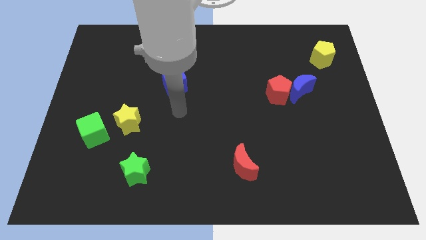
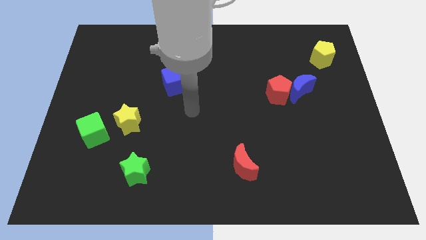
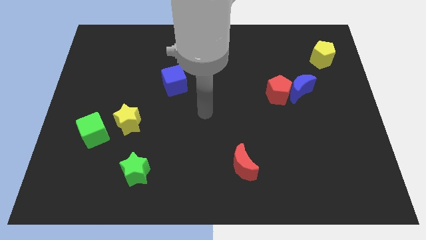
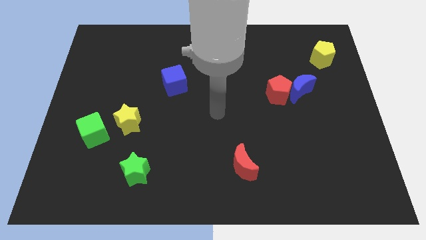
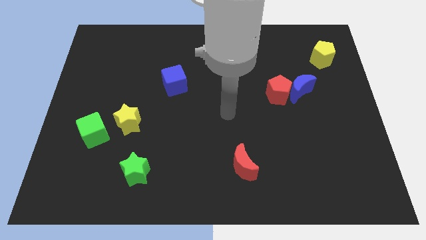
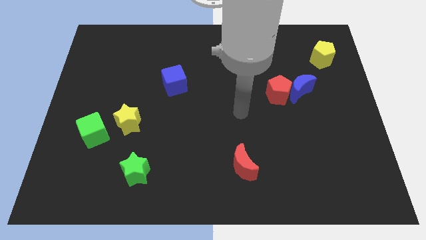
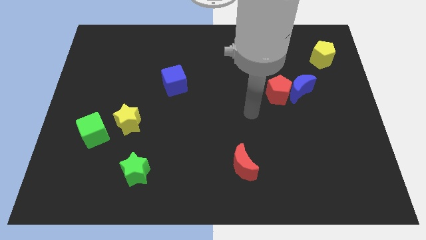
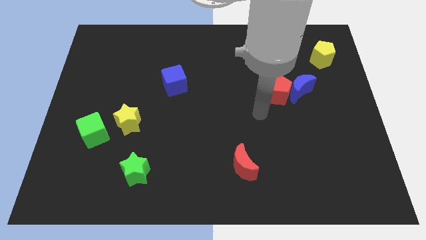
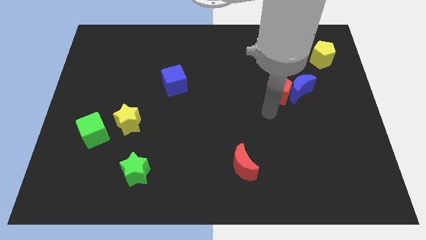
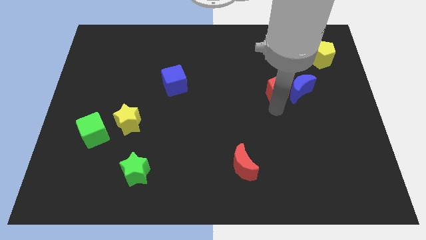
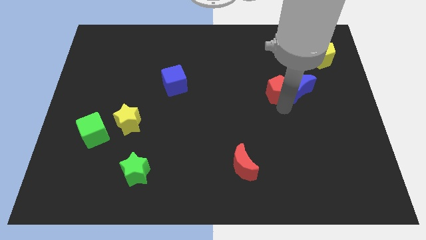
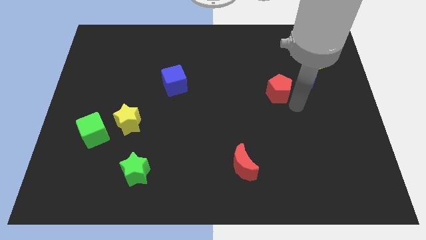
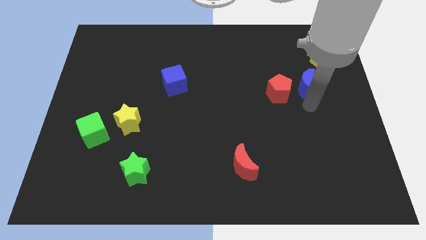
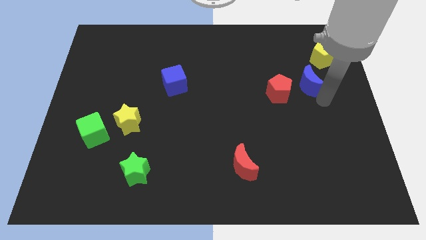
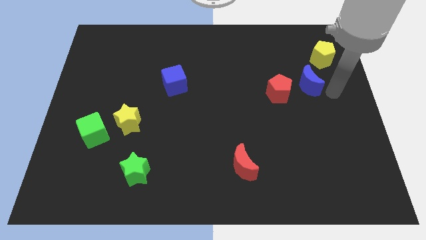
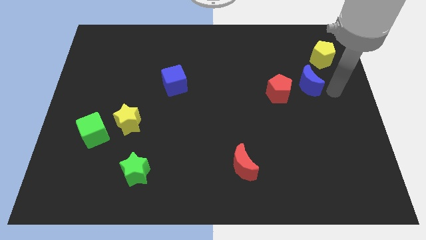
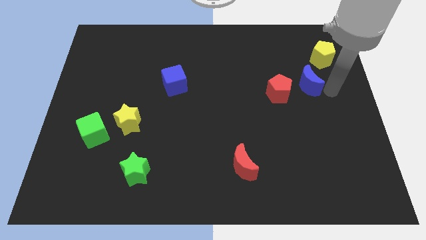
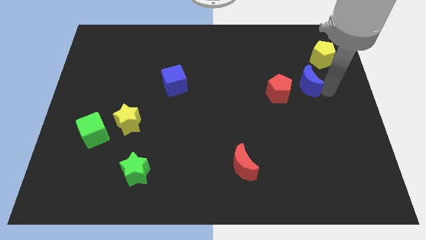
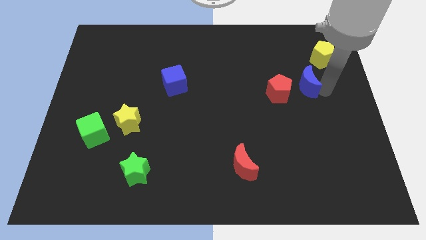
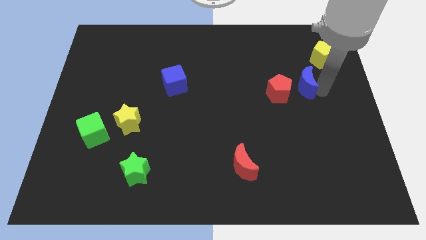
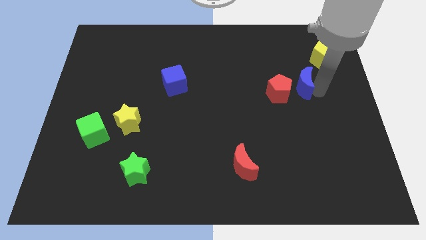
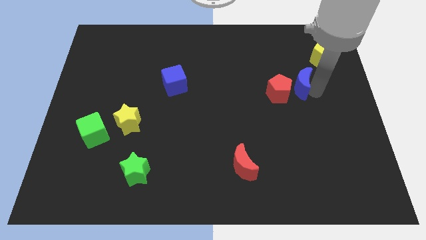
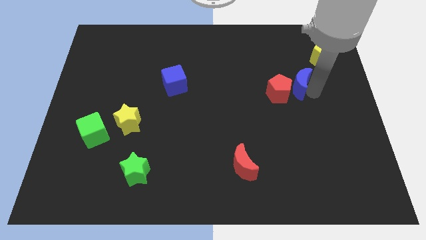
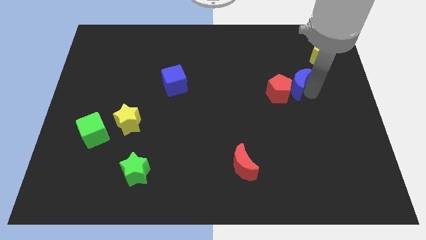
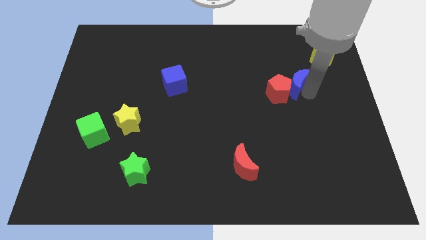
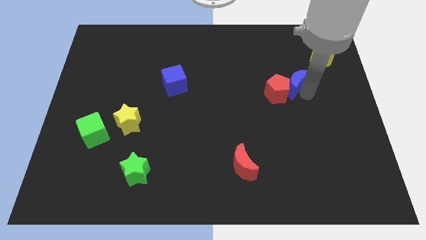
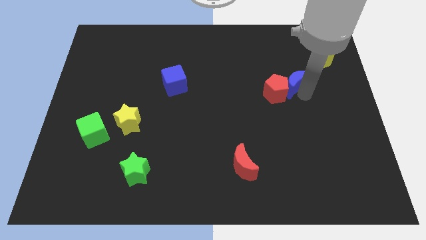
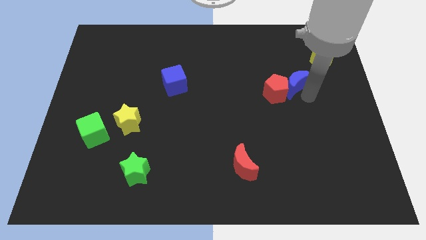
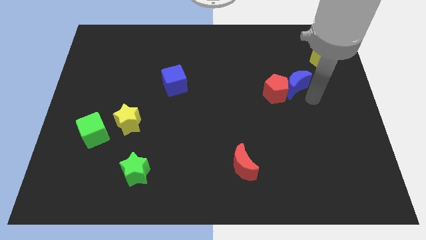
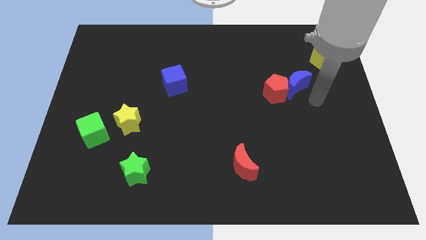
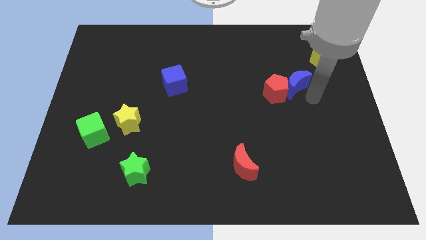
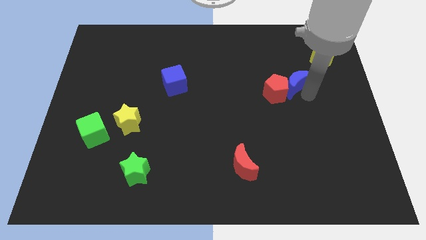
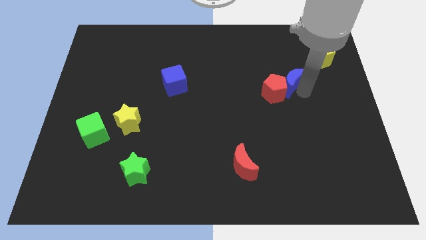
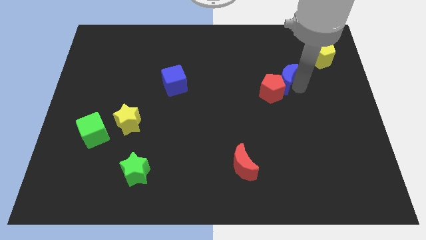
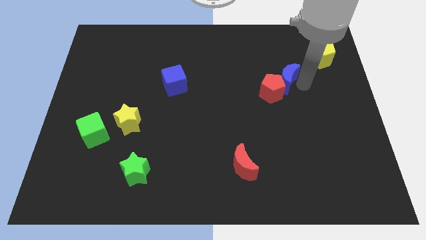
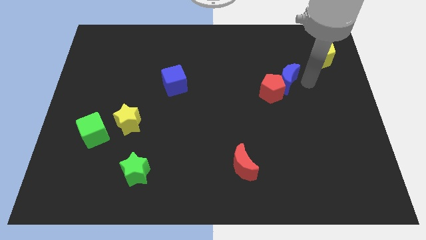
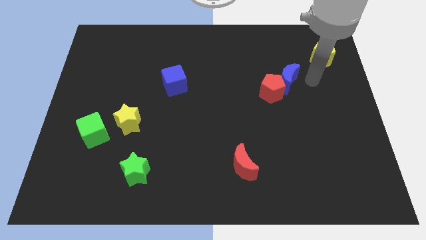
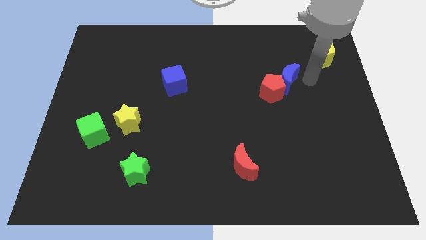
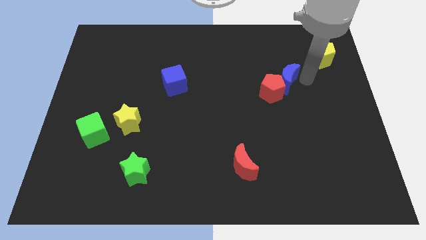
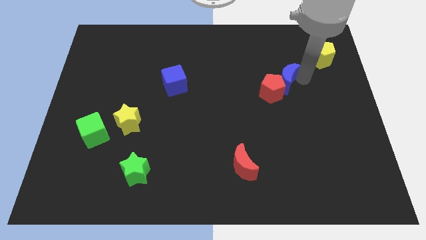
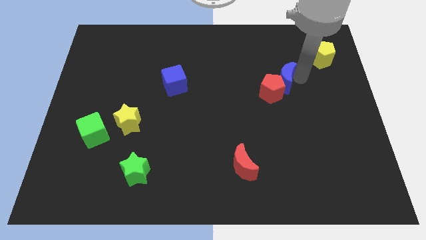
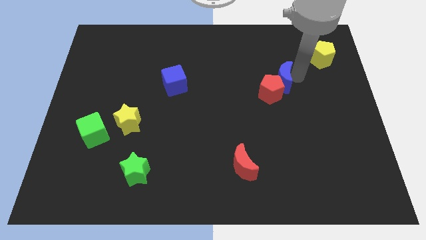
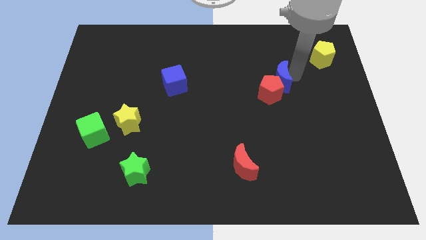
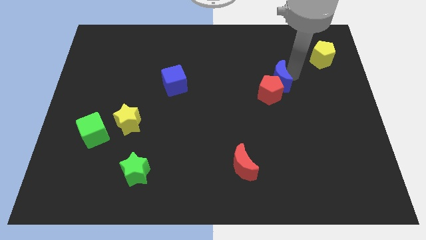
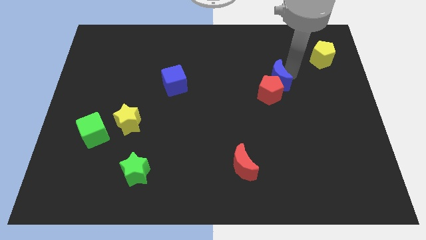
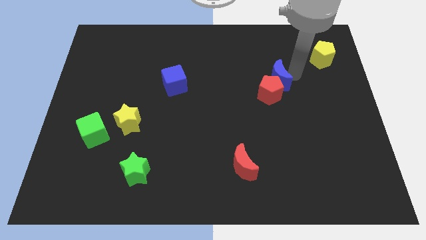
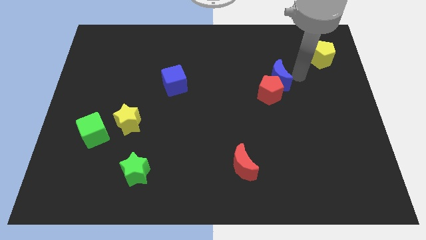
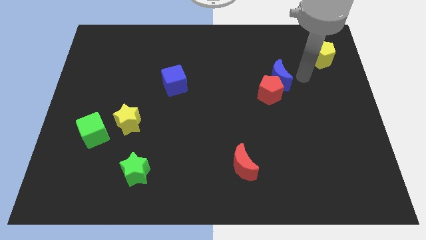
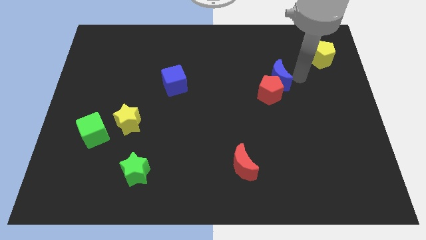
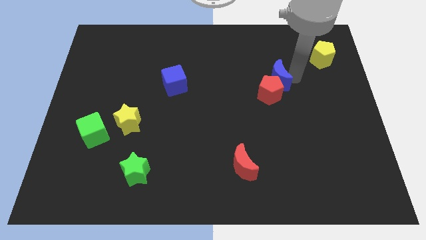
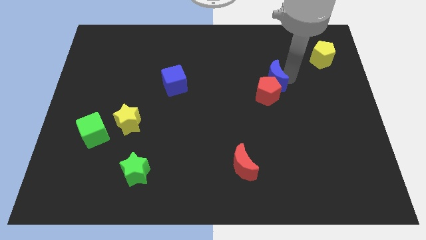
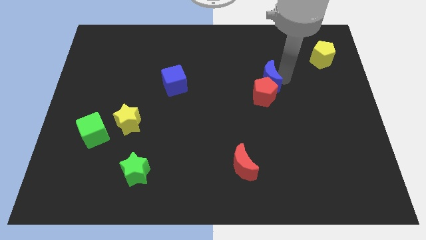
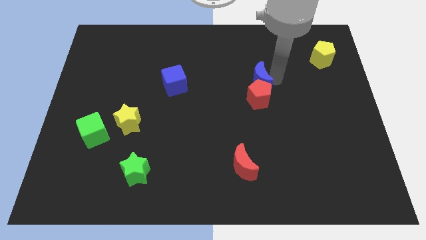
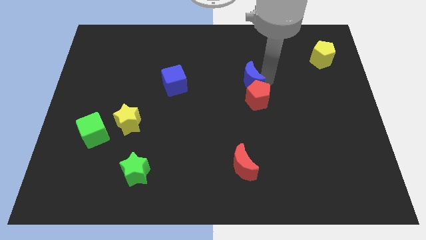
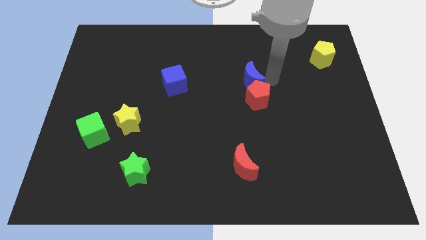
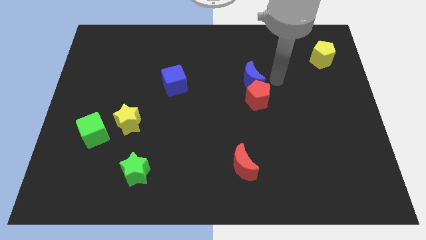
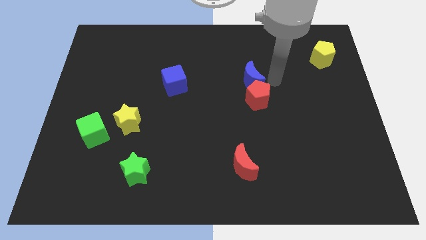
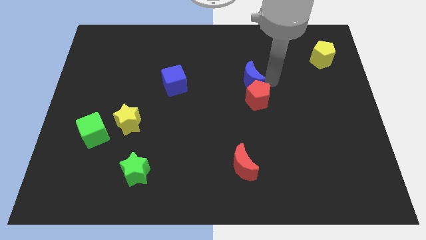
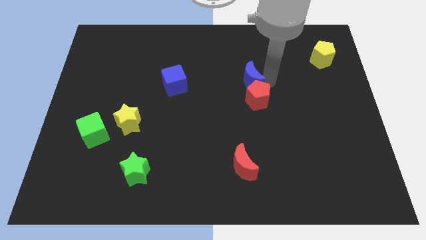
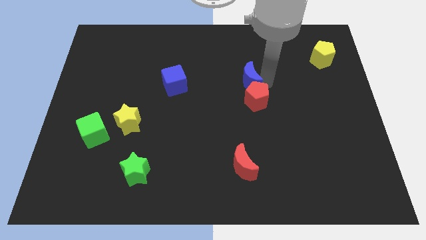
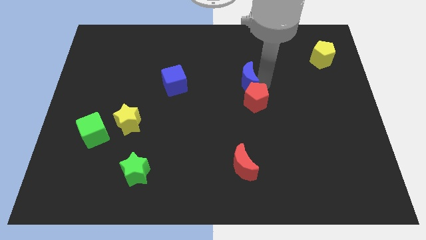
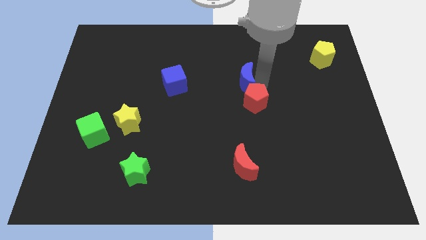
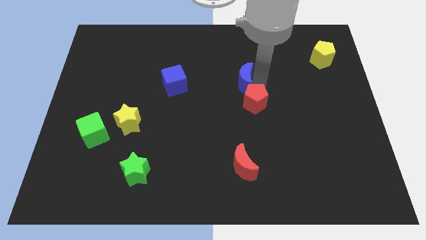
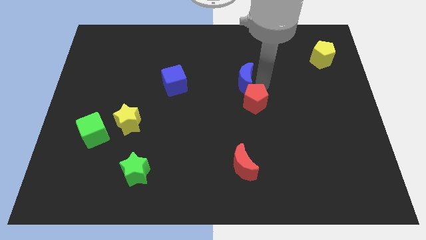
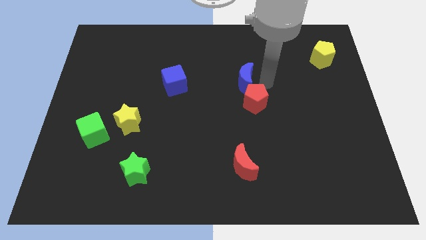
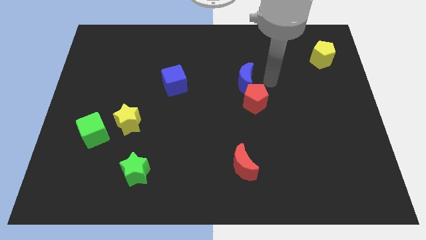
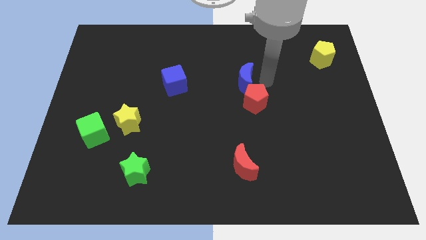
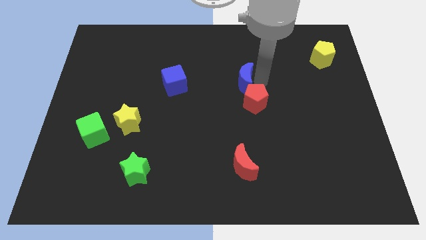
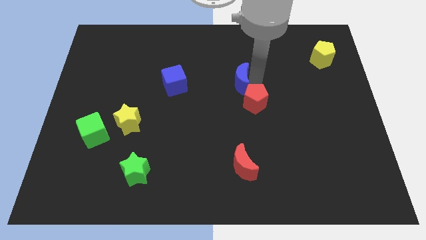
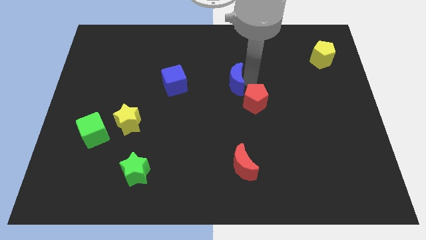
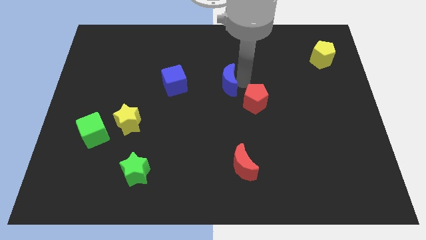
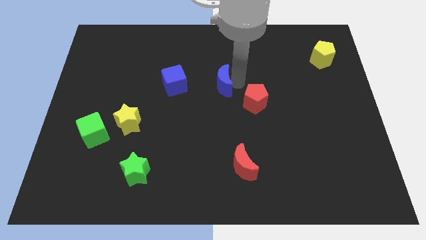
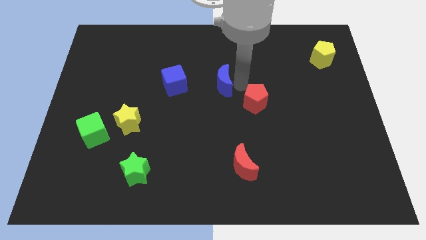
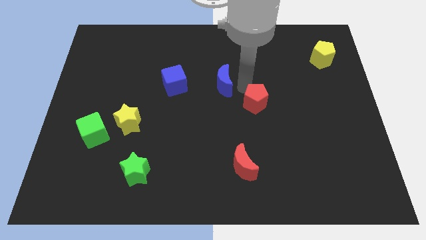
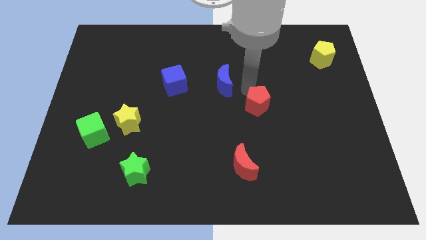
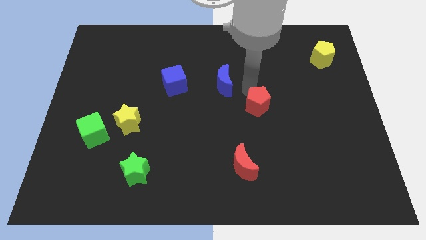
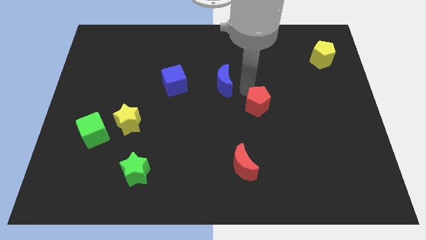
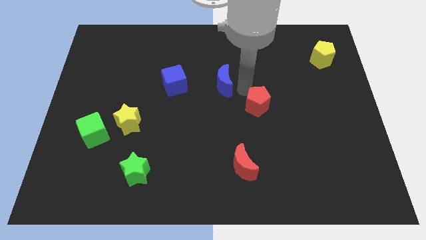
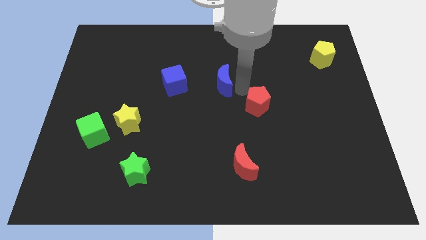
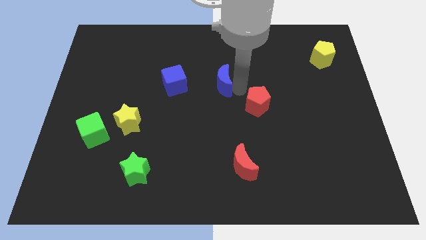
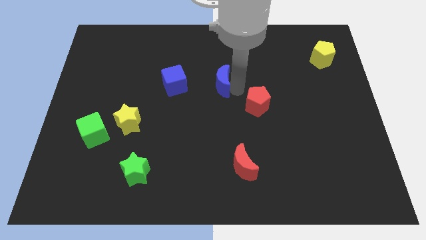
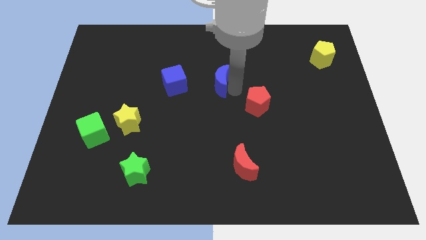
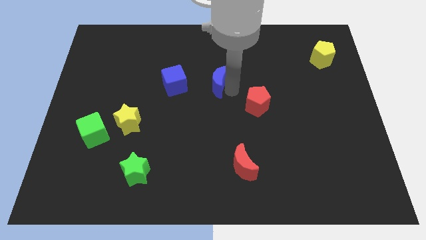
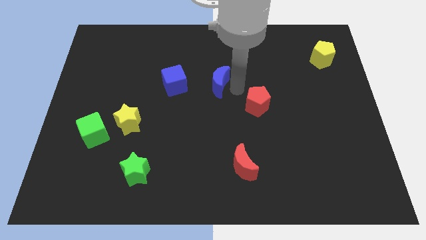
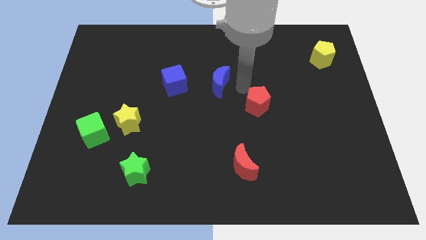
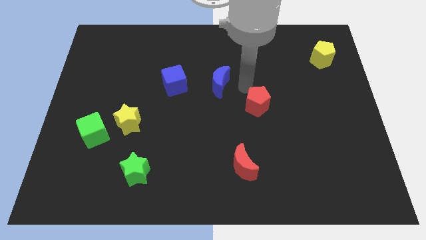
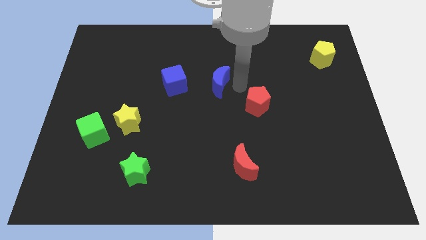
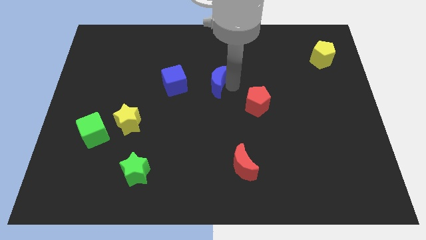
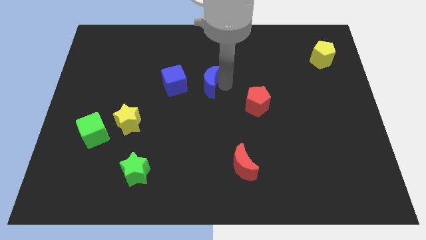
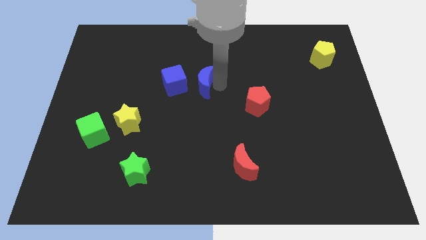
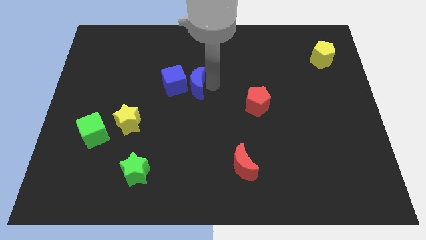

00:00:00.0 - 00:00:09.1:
move the blue moon towards the blue cube
